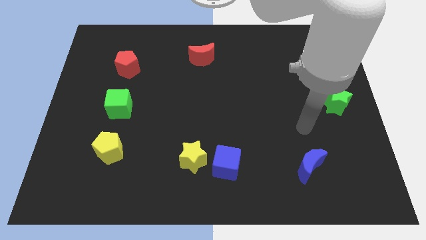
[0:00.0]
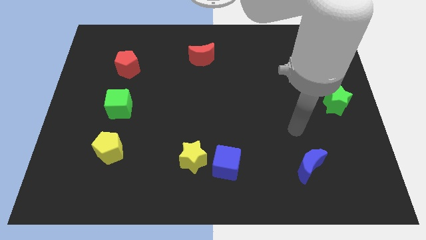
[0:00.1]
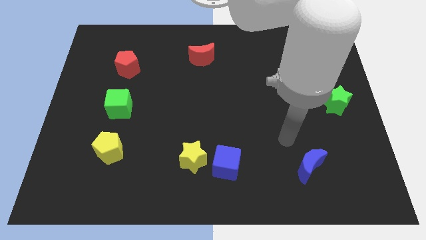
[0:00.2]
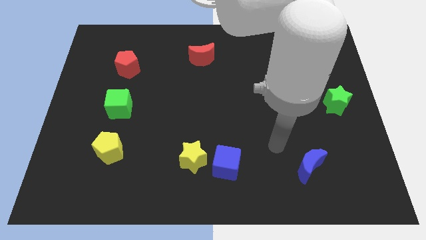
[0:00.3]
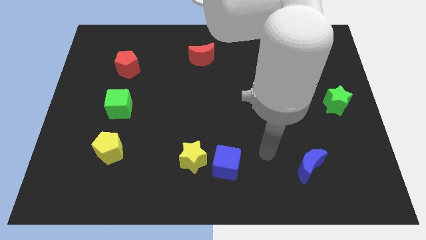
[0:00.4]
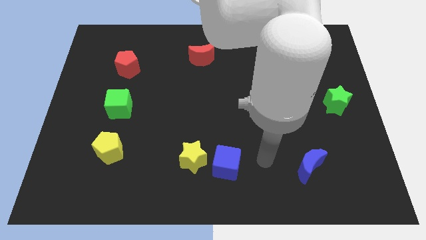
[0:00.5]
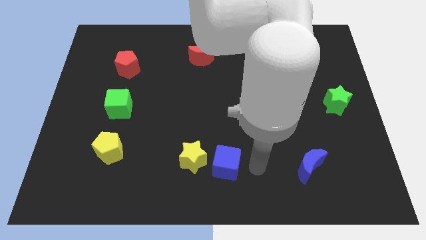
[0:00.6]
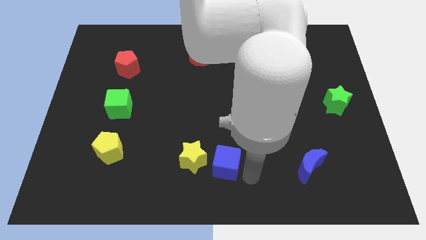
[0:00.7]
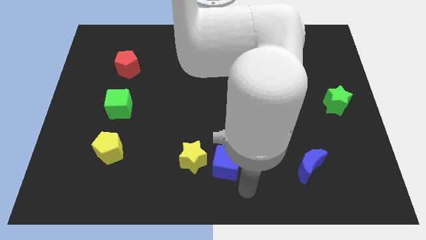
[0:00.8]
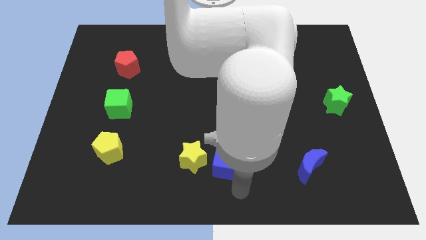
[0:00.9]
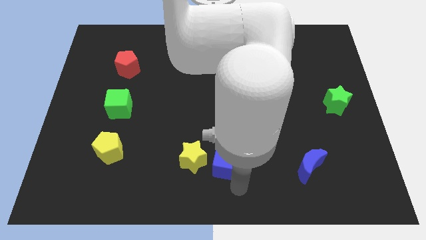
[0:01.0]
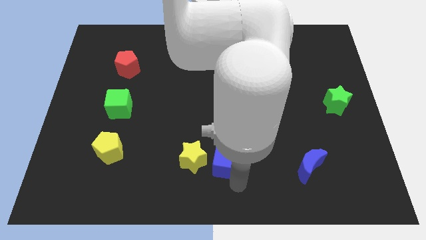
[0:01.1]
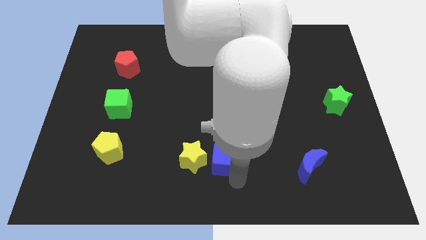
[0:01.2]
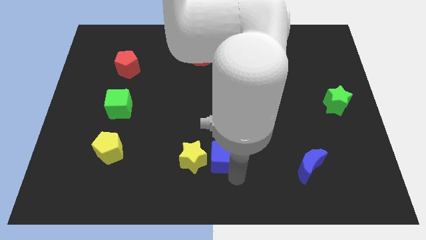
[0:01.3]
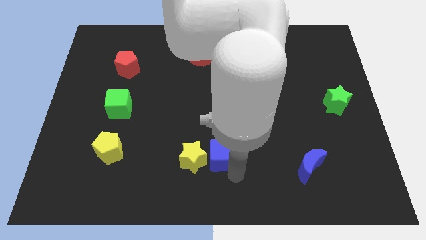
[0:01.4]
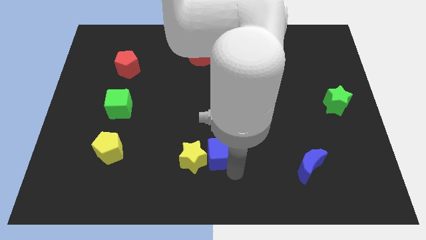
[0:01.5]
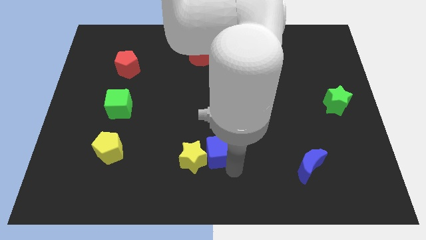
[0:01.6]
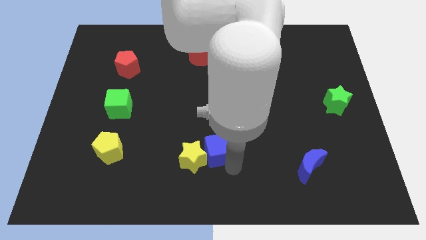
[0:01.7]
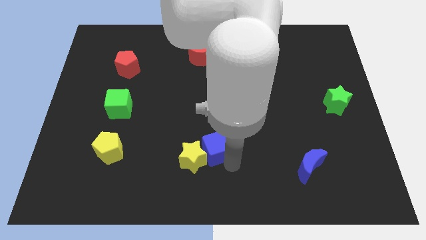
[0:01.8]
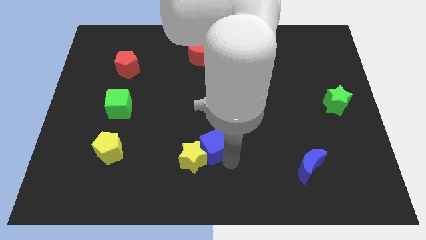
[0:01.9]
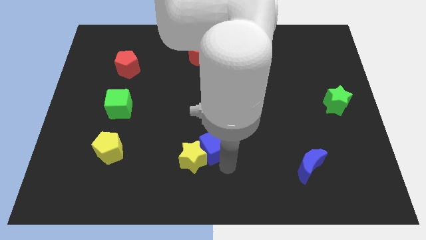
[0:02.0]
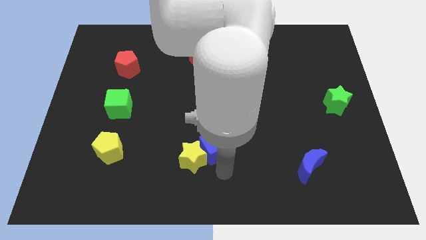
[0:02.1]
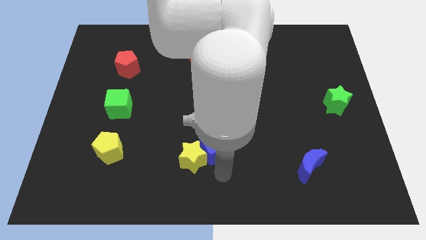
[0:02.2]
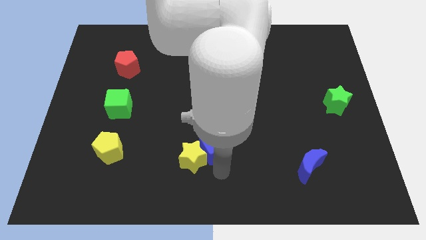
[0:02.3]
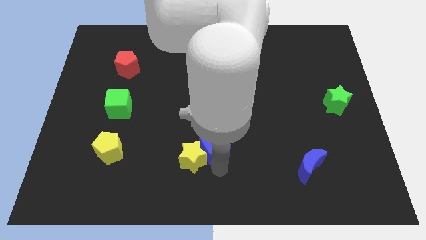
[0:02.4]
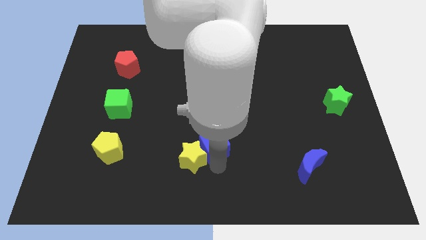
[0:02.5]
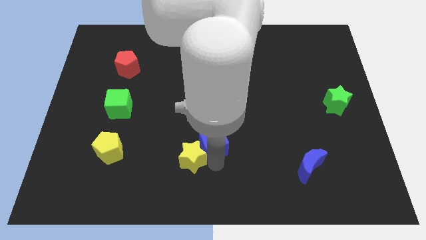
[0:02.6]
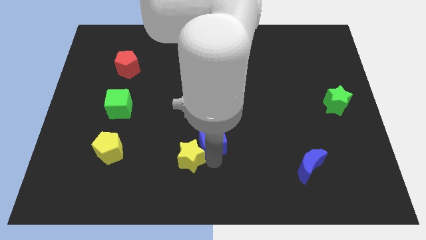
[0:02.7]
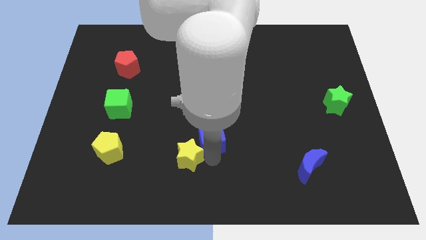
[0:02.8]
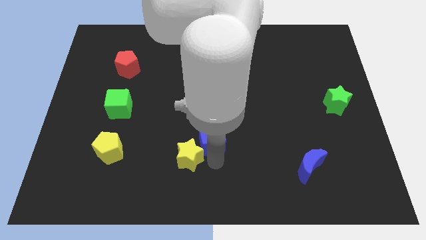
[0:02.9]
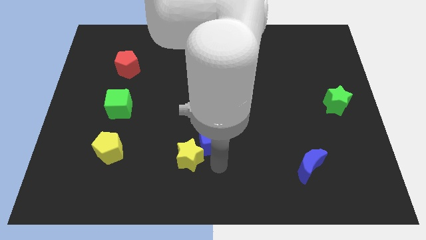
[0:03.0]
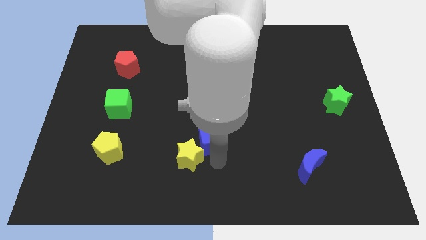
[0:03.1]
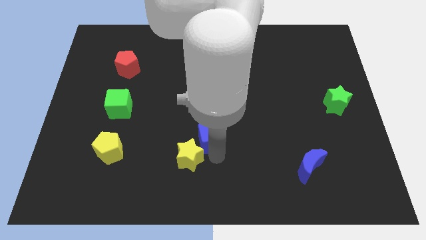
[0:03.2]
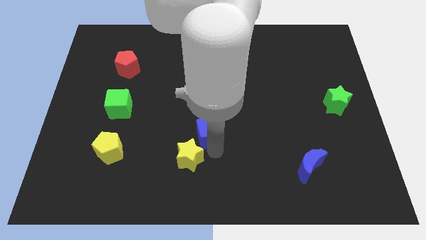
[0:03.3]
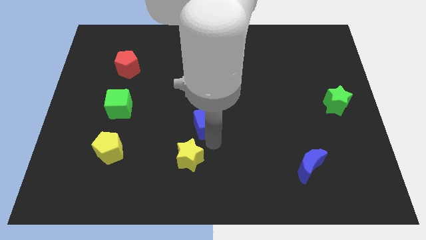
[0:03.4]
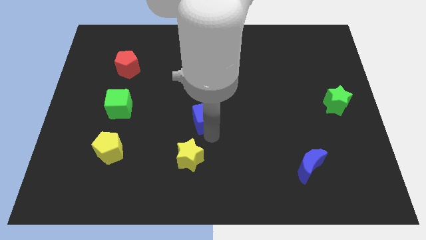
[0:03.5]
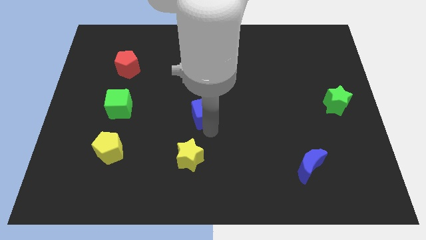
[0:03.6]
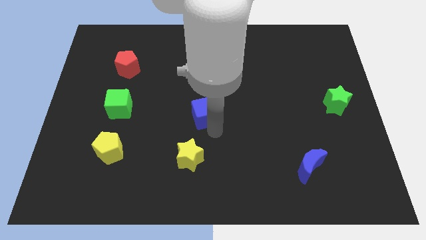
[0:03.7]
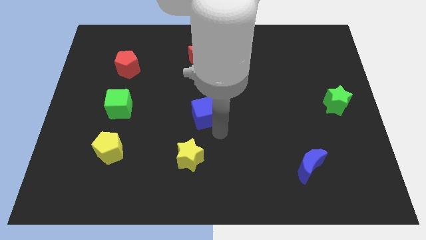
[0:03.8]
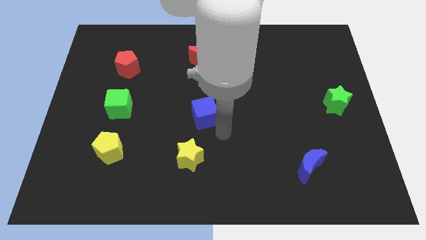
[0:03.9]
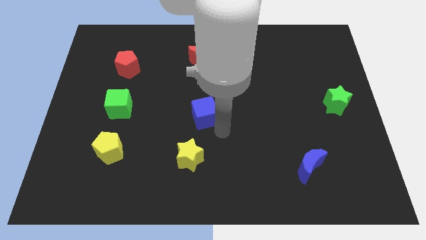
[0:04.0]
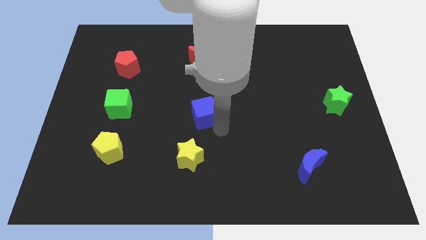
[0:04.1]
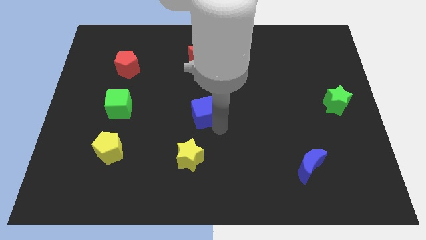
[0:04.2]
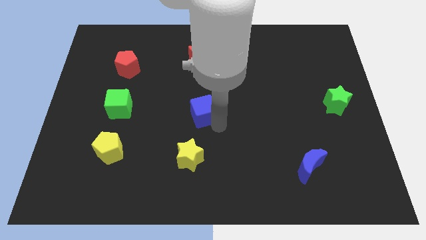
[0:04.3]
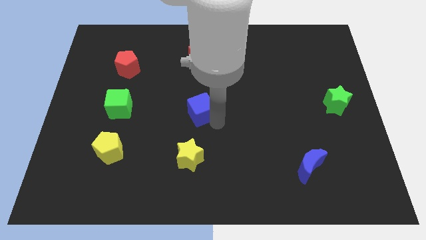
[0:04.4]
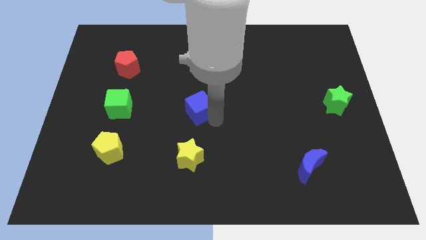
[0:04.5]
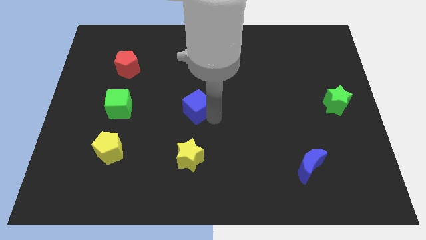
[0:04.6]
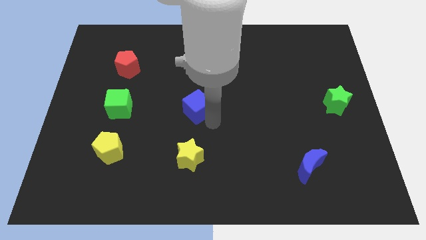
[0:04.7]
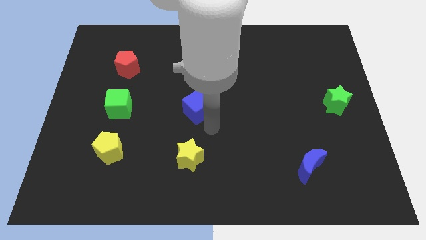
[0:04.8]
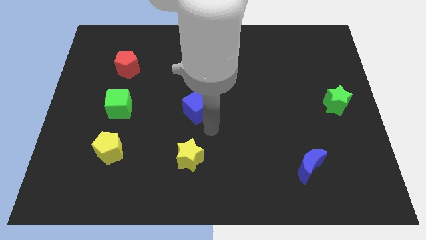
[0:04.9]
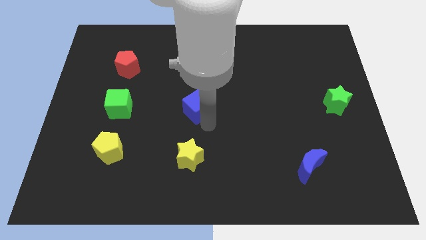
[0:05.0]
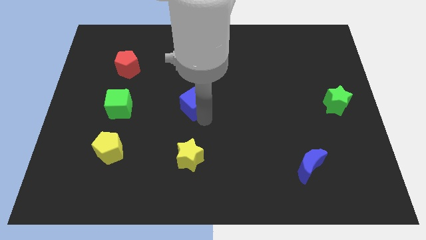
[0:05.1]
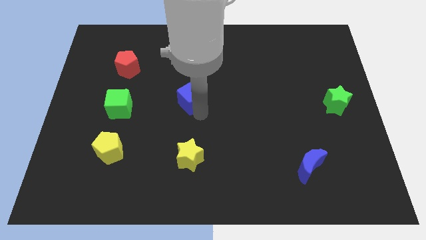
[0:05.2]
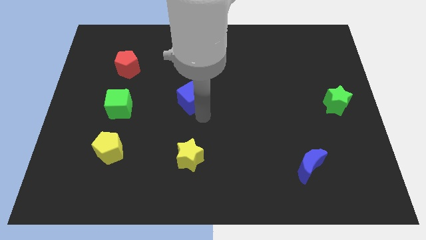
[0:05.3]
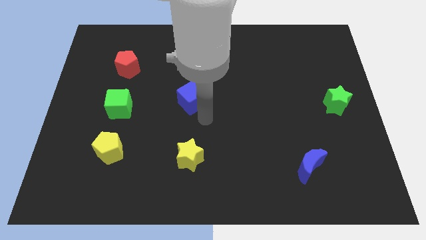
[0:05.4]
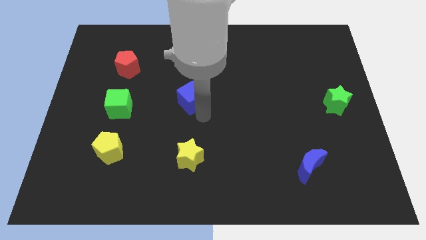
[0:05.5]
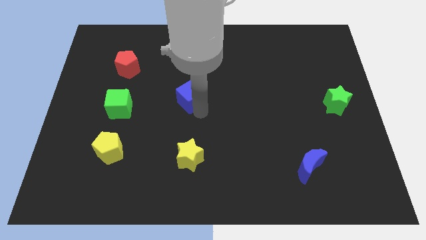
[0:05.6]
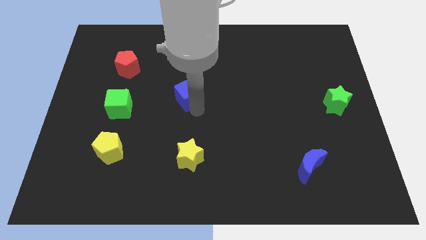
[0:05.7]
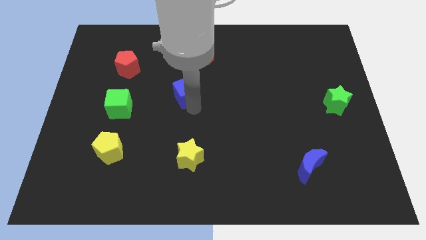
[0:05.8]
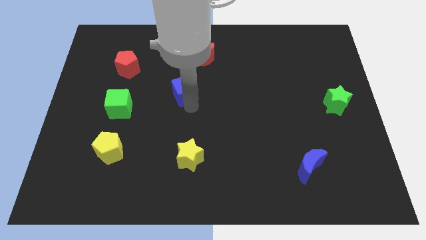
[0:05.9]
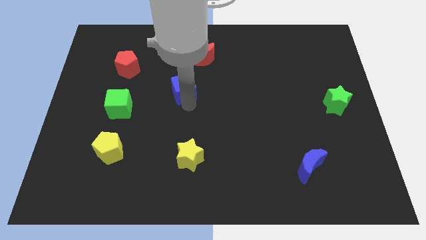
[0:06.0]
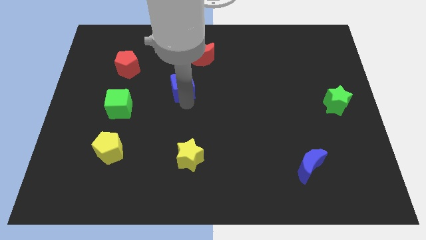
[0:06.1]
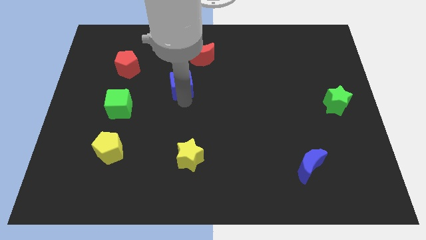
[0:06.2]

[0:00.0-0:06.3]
slide the blue cube to the bottom left of the red moon

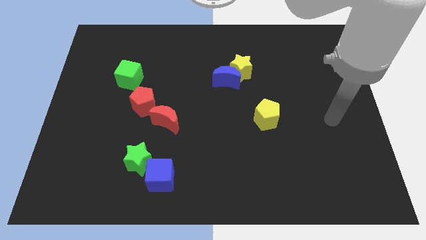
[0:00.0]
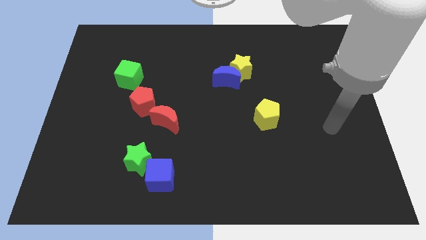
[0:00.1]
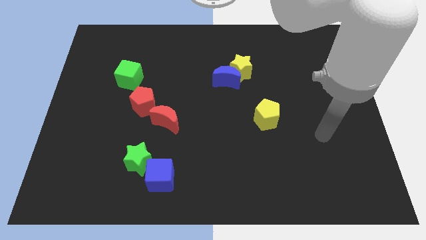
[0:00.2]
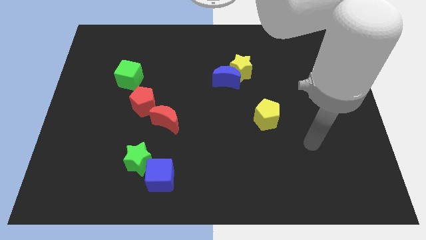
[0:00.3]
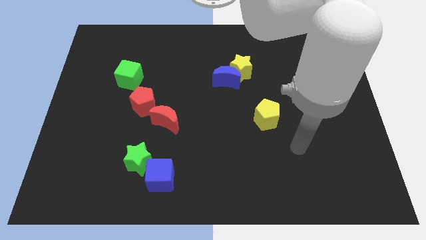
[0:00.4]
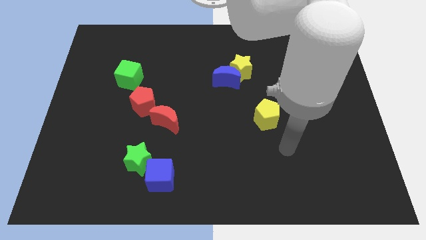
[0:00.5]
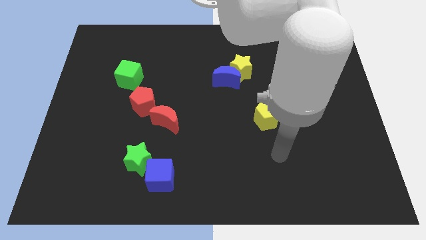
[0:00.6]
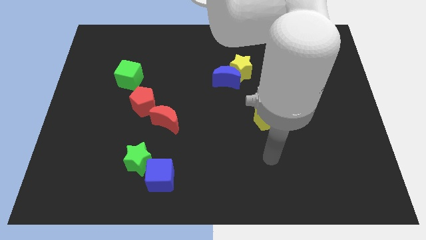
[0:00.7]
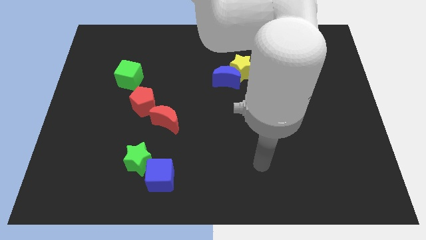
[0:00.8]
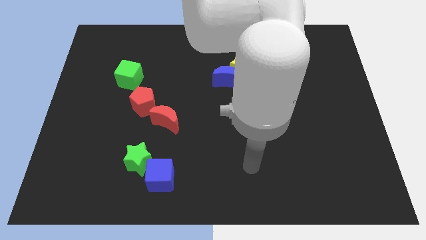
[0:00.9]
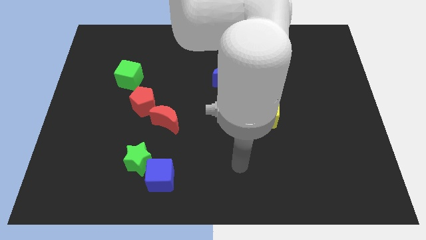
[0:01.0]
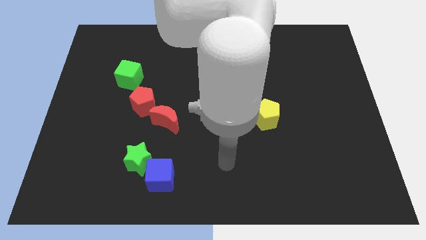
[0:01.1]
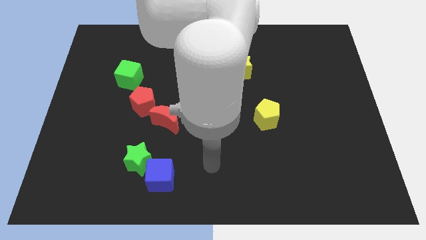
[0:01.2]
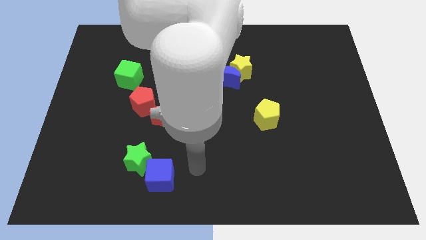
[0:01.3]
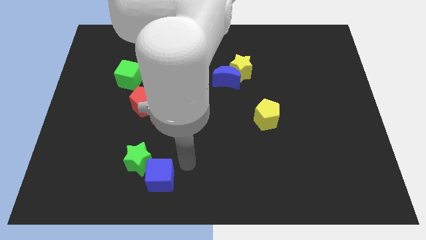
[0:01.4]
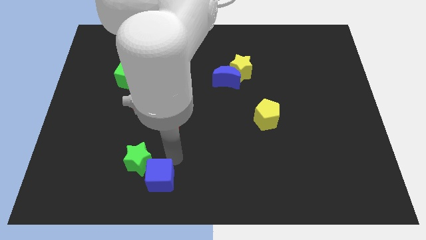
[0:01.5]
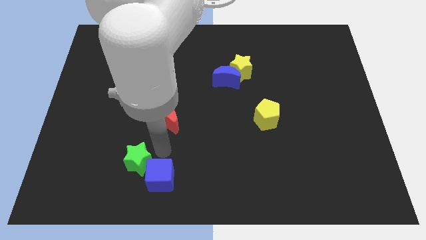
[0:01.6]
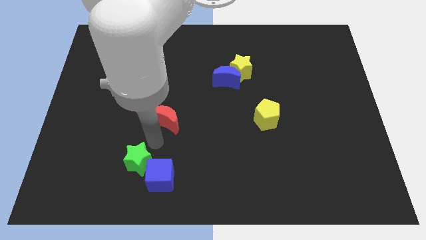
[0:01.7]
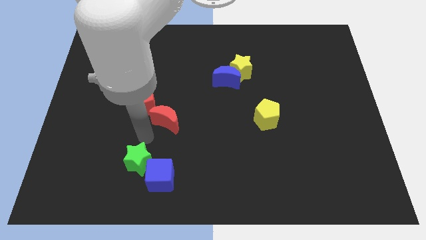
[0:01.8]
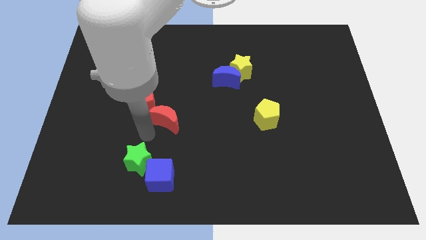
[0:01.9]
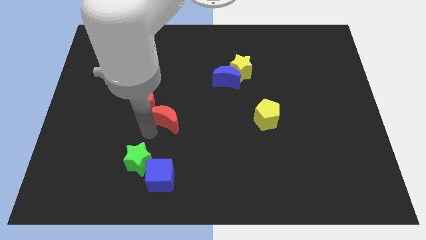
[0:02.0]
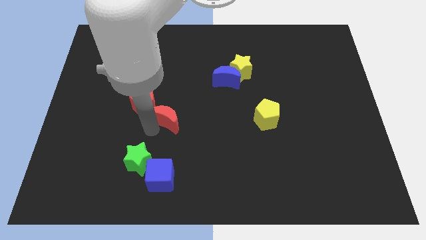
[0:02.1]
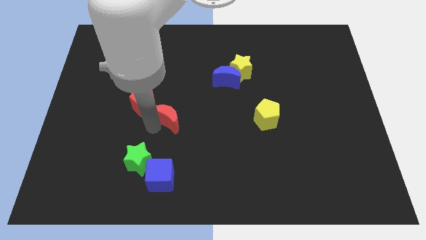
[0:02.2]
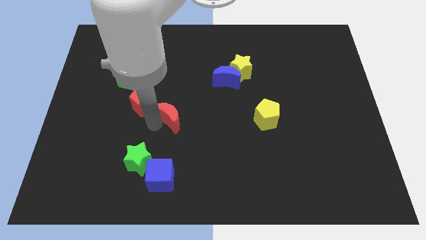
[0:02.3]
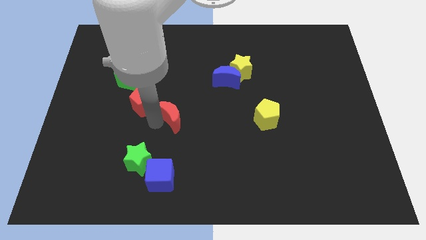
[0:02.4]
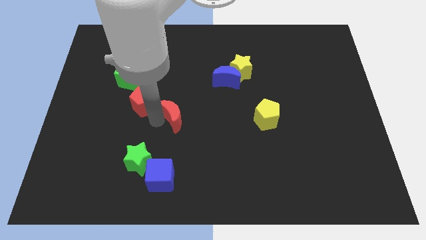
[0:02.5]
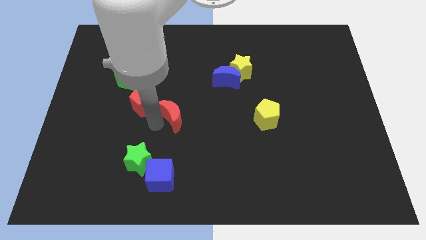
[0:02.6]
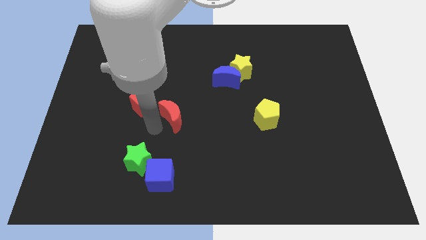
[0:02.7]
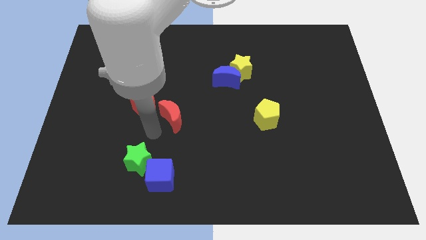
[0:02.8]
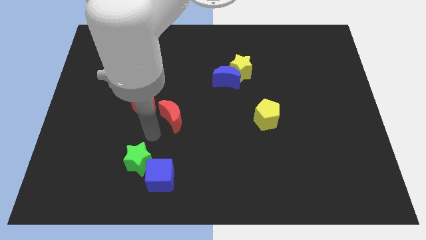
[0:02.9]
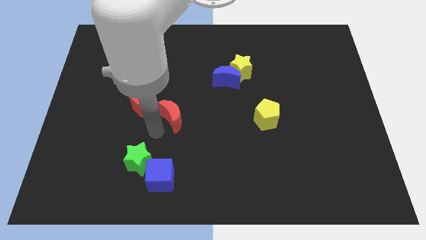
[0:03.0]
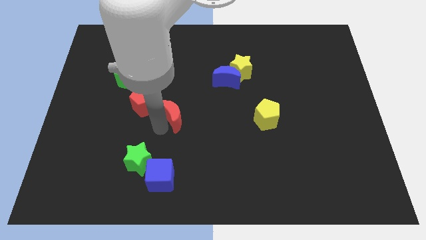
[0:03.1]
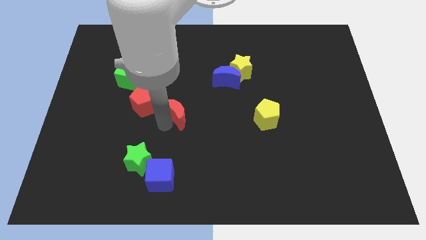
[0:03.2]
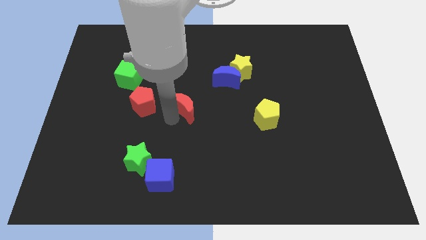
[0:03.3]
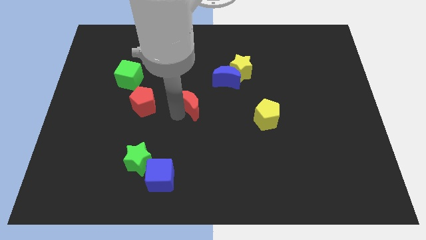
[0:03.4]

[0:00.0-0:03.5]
put the red moon diagonally down and to the left of the blue moon
